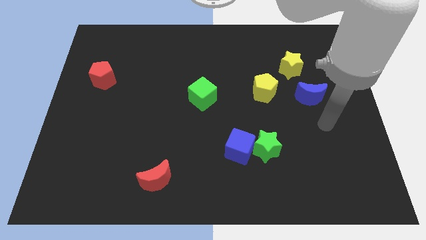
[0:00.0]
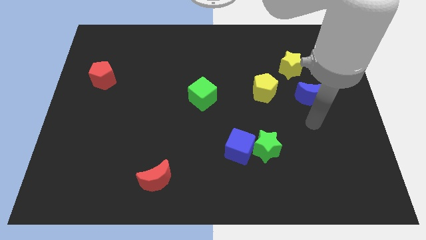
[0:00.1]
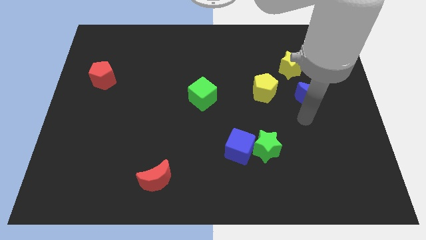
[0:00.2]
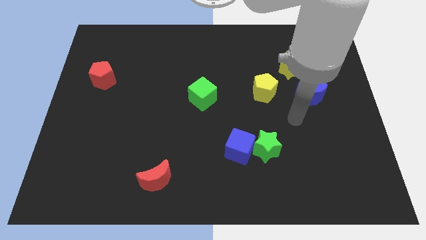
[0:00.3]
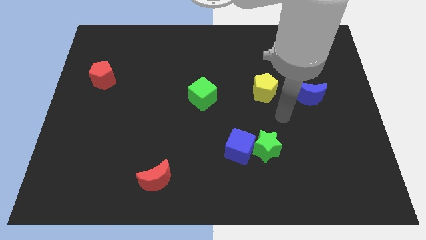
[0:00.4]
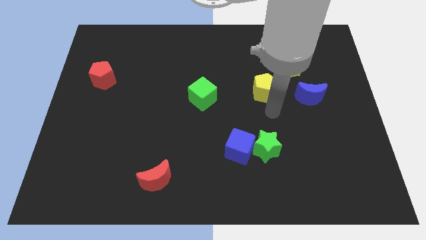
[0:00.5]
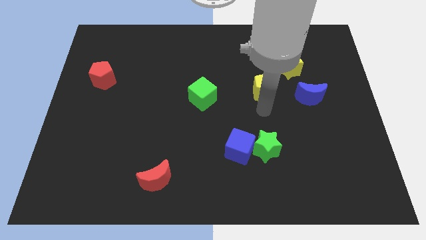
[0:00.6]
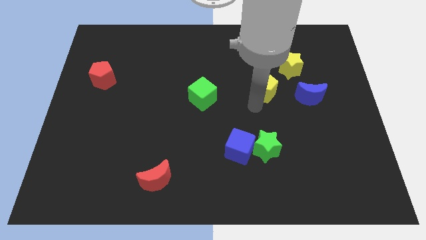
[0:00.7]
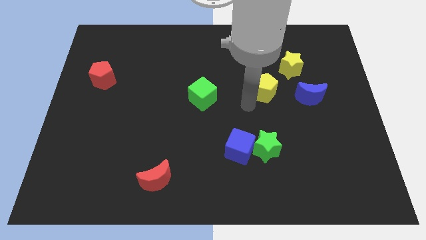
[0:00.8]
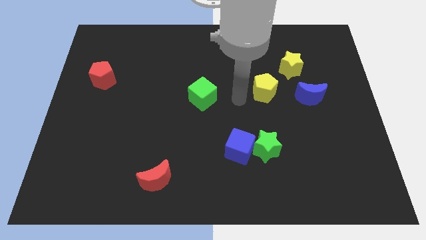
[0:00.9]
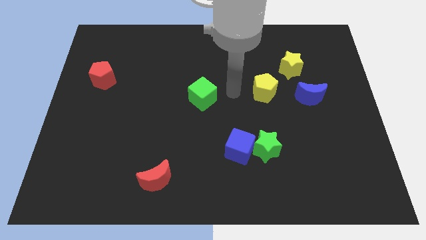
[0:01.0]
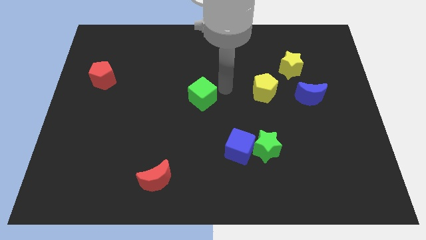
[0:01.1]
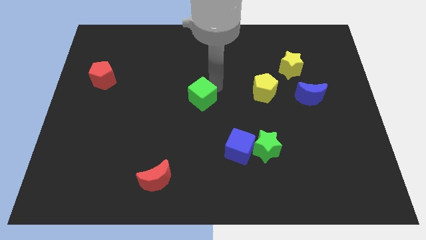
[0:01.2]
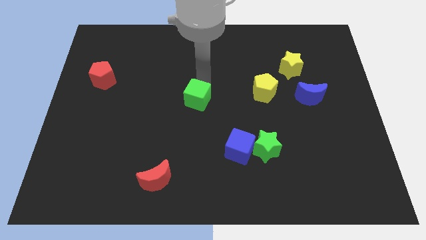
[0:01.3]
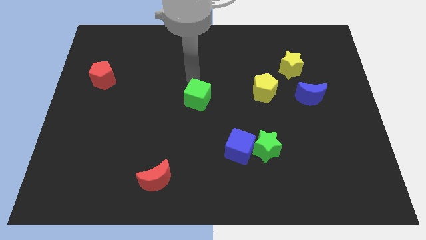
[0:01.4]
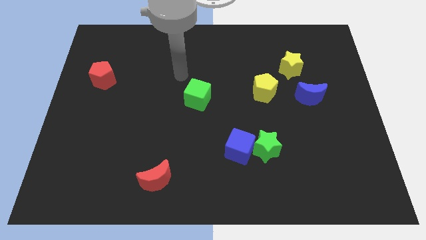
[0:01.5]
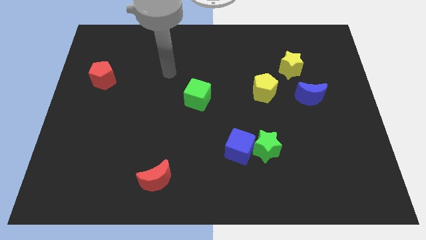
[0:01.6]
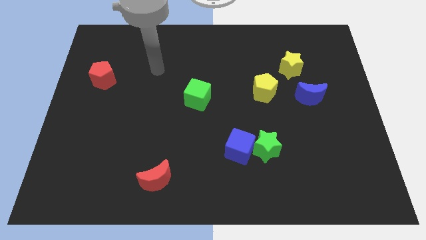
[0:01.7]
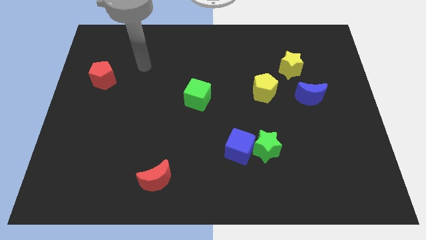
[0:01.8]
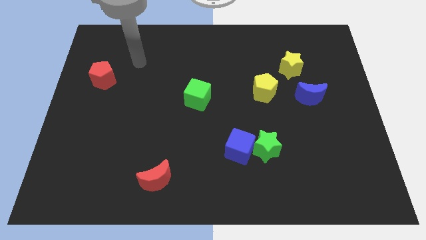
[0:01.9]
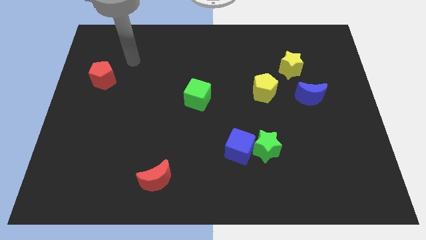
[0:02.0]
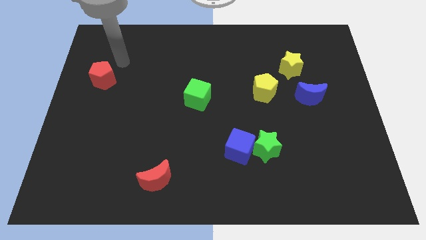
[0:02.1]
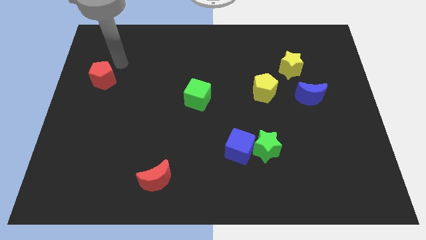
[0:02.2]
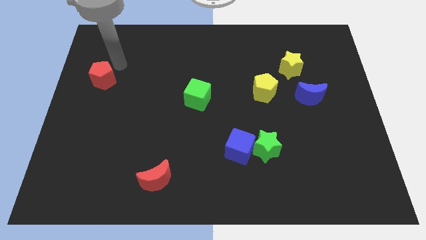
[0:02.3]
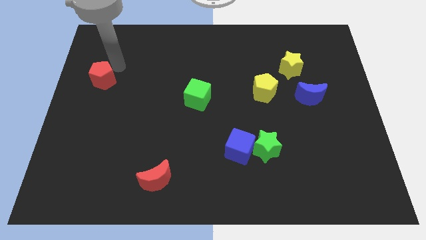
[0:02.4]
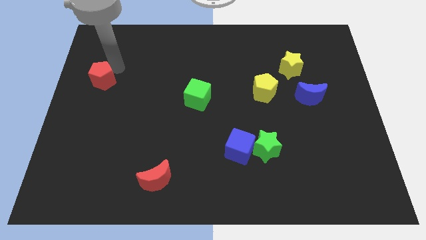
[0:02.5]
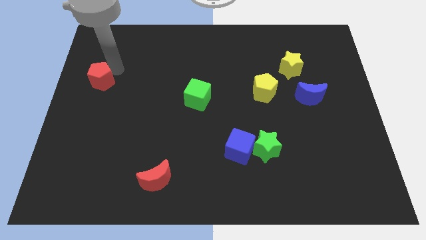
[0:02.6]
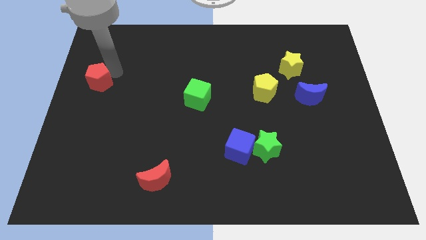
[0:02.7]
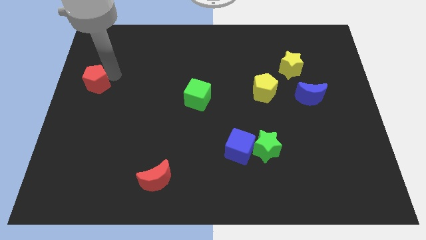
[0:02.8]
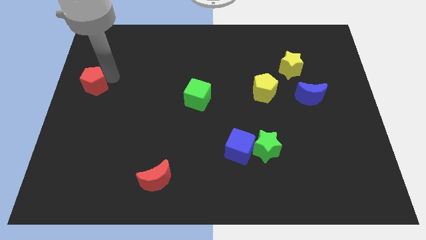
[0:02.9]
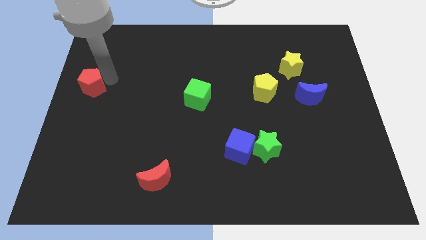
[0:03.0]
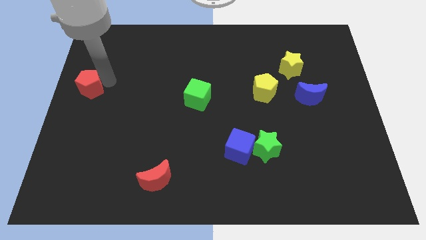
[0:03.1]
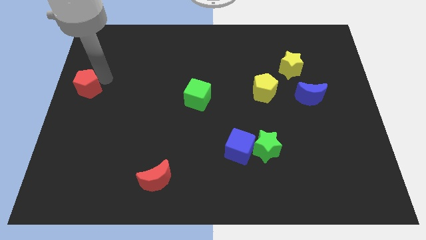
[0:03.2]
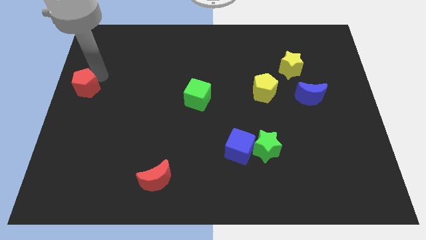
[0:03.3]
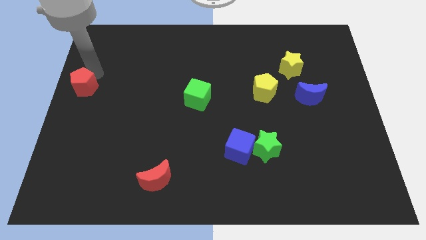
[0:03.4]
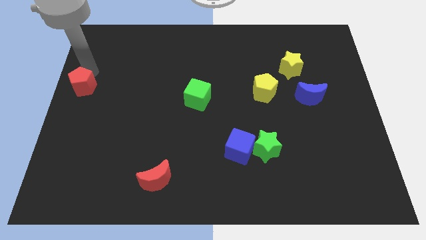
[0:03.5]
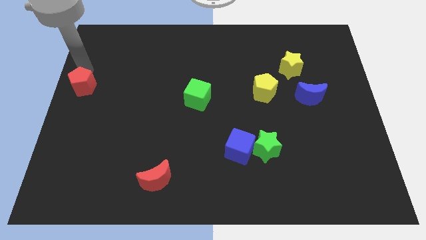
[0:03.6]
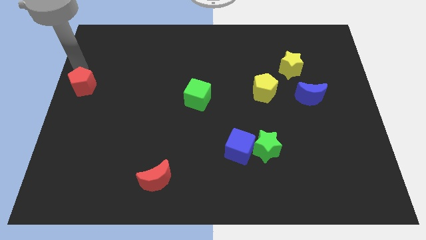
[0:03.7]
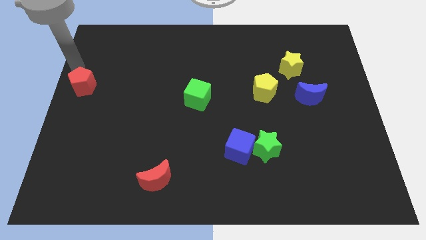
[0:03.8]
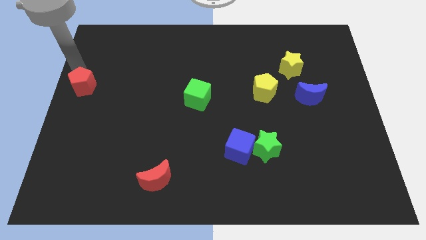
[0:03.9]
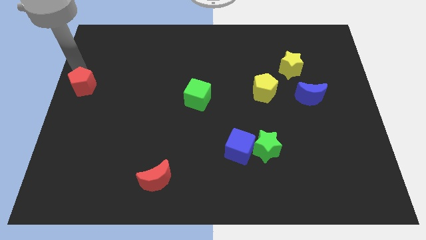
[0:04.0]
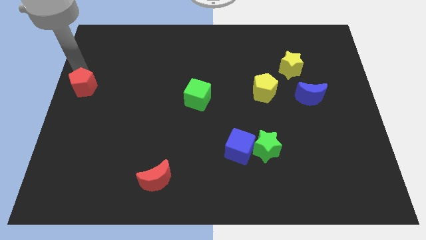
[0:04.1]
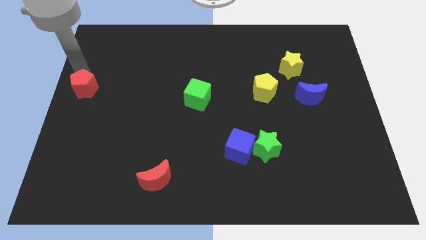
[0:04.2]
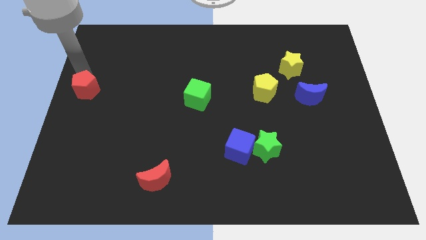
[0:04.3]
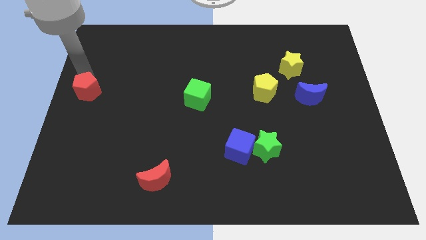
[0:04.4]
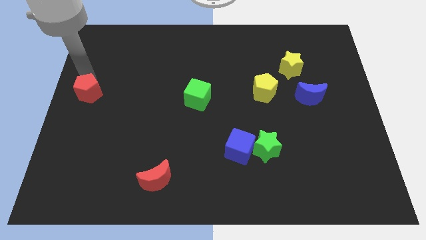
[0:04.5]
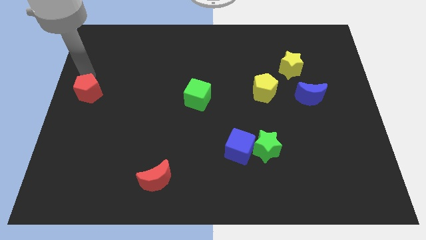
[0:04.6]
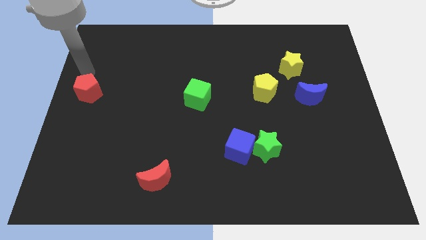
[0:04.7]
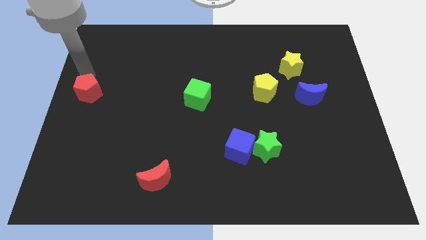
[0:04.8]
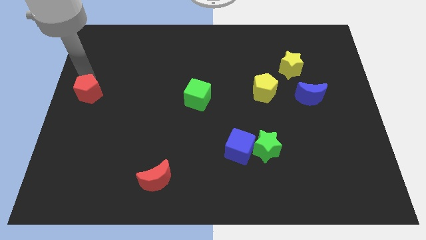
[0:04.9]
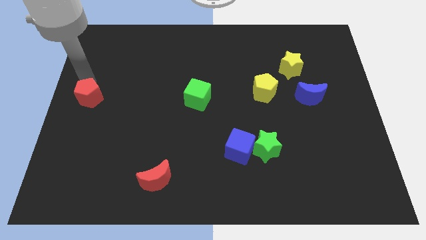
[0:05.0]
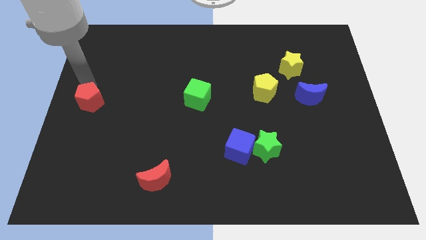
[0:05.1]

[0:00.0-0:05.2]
move the red pentagon somewhat down

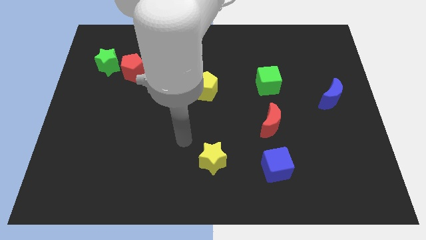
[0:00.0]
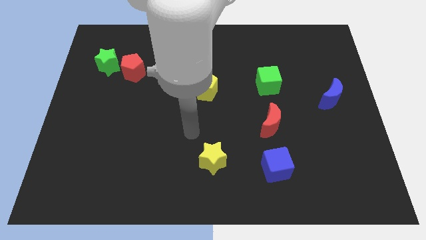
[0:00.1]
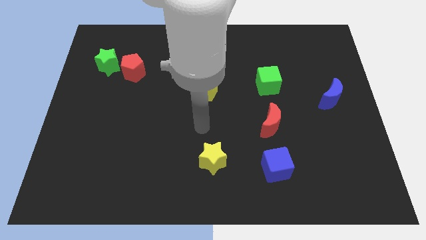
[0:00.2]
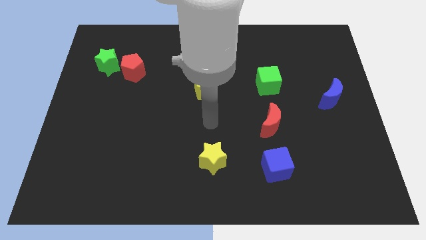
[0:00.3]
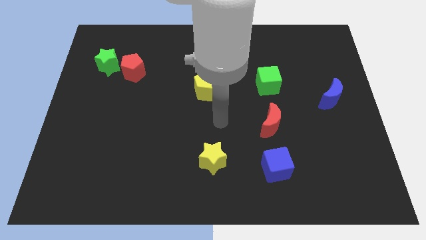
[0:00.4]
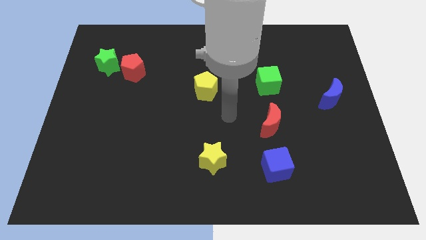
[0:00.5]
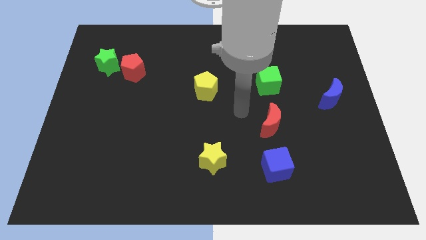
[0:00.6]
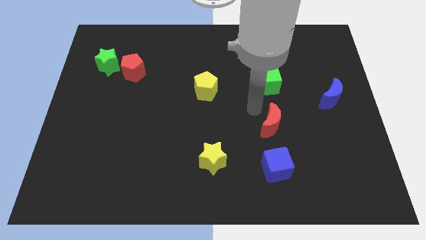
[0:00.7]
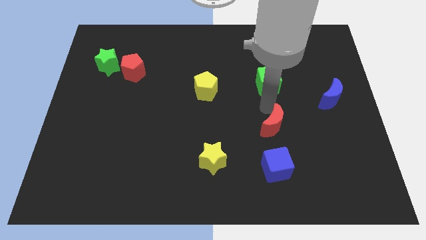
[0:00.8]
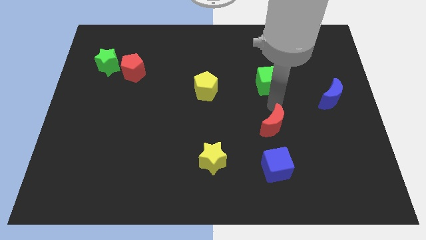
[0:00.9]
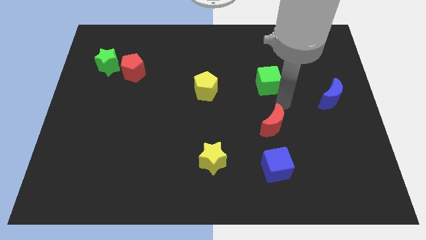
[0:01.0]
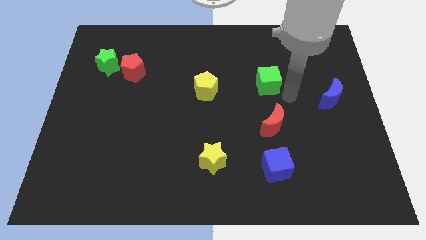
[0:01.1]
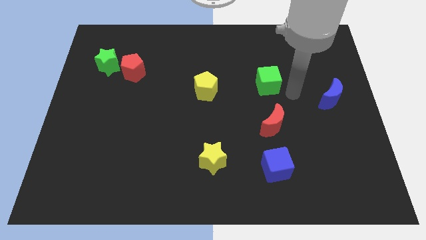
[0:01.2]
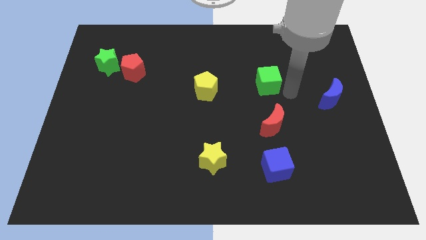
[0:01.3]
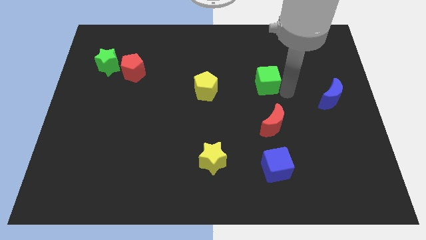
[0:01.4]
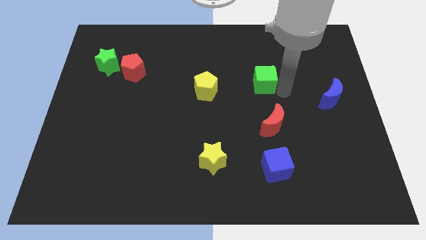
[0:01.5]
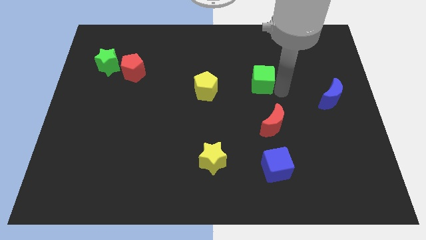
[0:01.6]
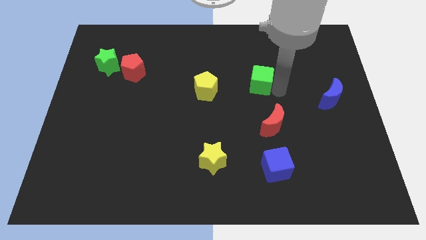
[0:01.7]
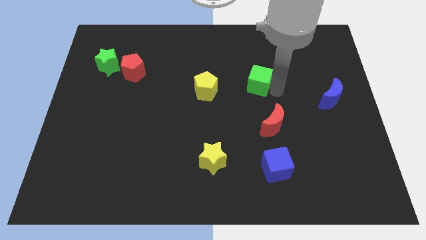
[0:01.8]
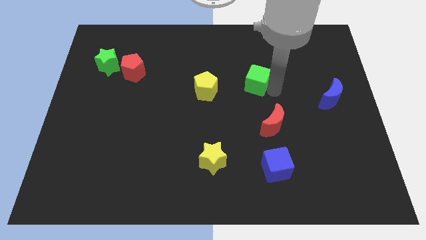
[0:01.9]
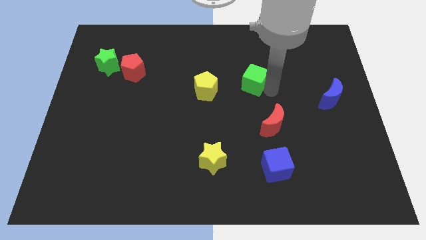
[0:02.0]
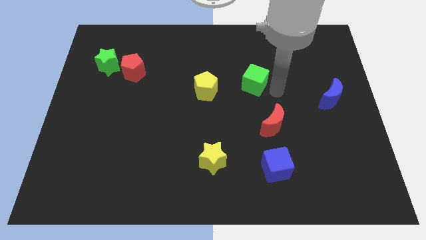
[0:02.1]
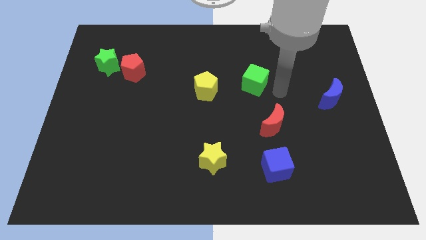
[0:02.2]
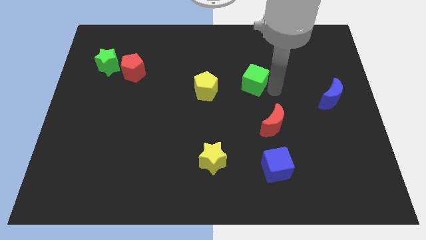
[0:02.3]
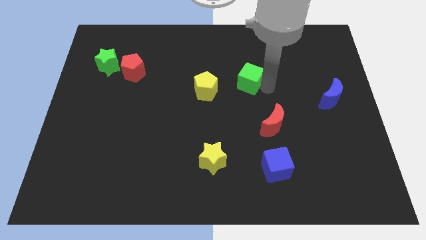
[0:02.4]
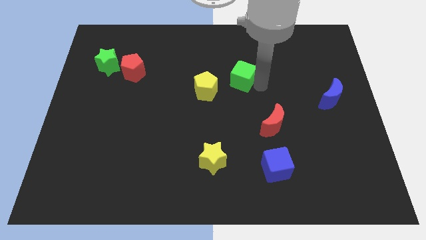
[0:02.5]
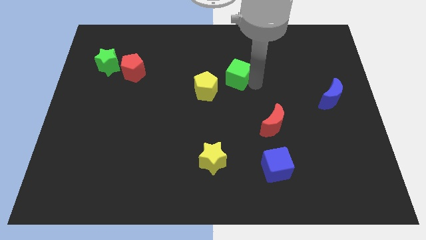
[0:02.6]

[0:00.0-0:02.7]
slide the green cube a bit to the left

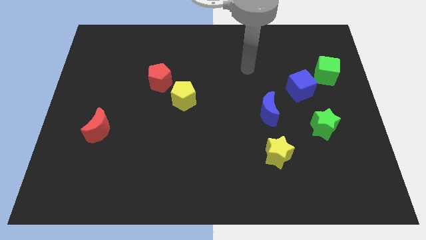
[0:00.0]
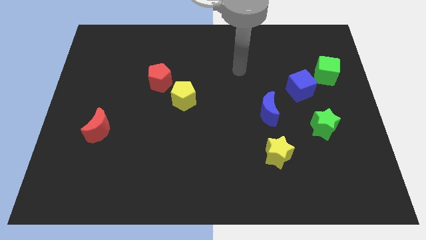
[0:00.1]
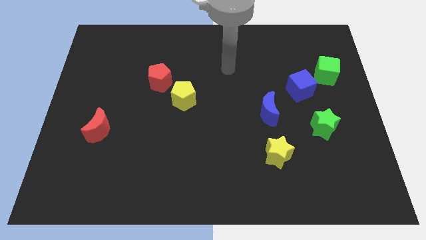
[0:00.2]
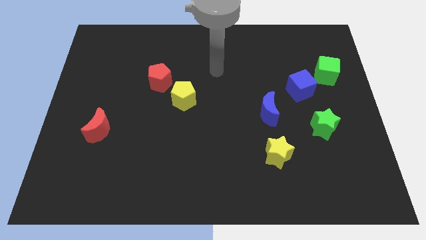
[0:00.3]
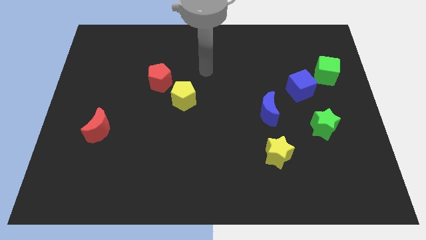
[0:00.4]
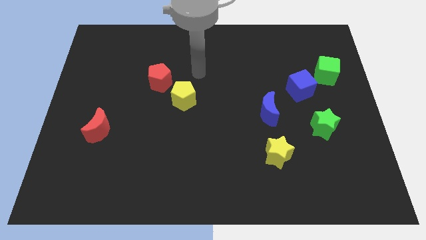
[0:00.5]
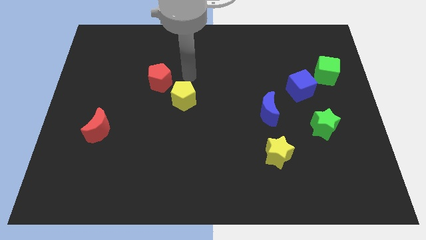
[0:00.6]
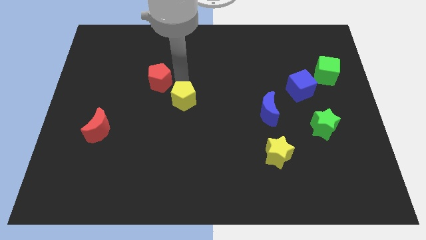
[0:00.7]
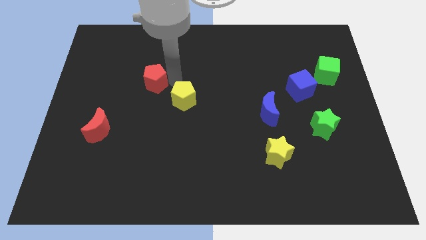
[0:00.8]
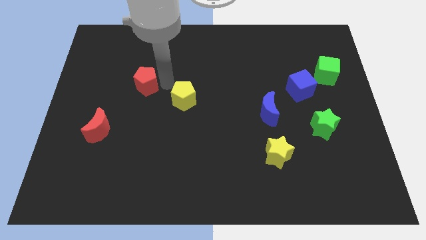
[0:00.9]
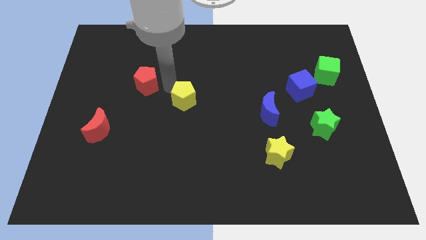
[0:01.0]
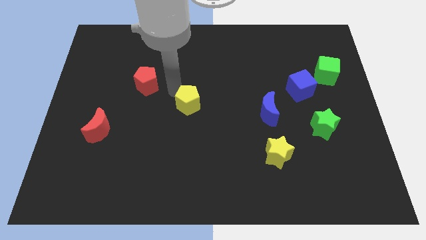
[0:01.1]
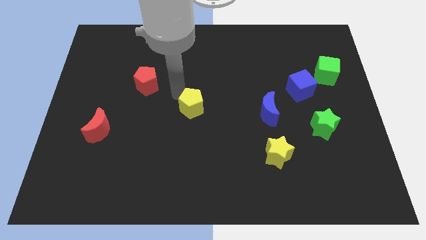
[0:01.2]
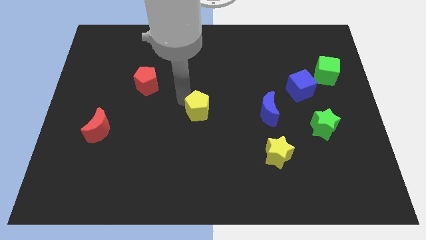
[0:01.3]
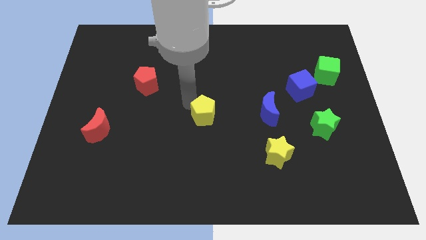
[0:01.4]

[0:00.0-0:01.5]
slightly move the yellow pentagon diagonally downwards and right
